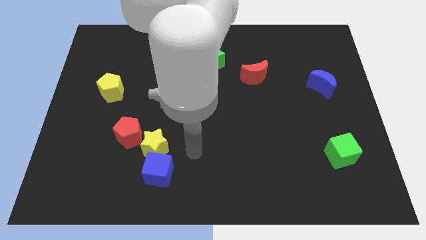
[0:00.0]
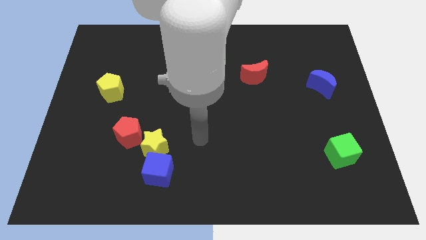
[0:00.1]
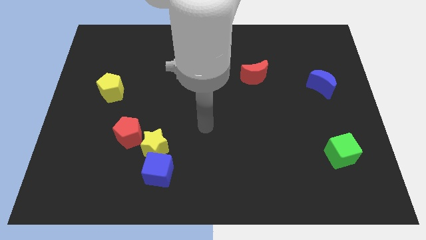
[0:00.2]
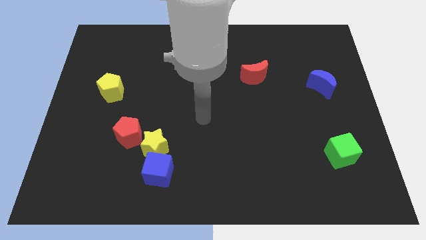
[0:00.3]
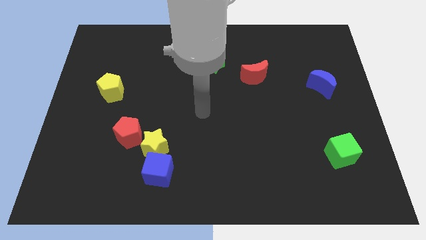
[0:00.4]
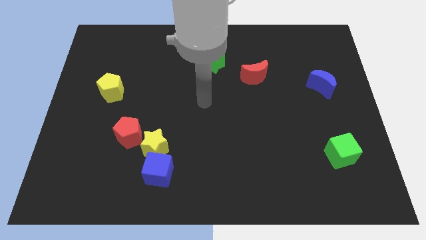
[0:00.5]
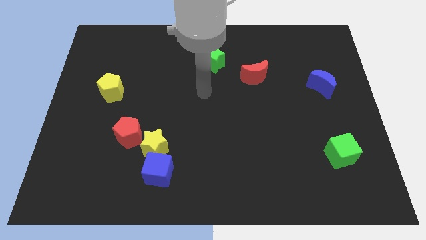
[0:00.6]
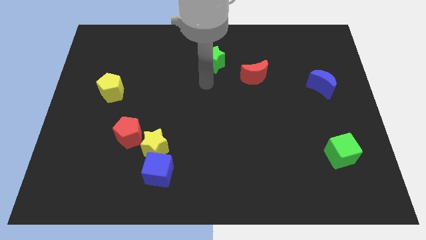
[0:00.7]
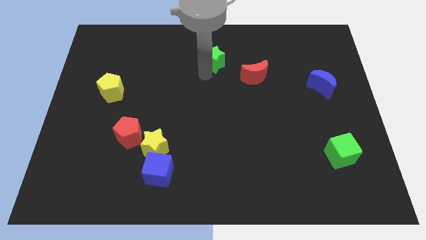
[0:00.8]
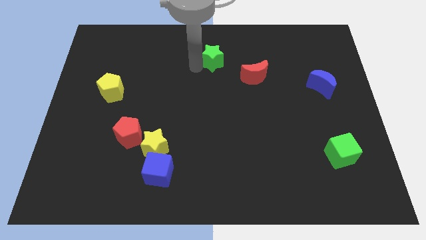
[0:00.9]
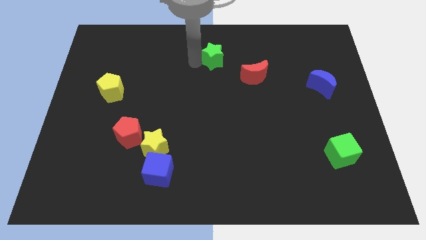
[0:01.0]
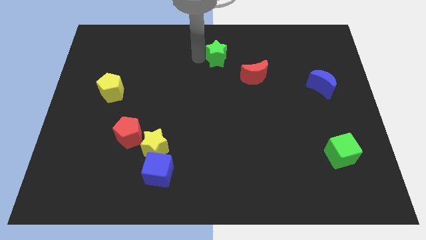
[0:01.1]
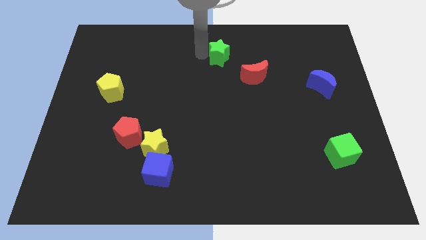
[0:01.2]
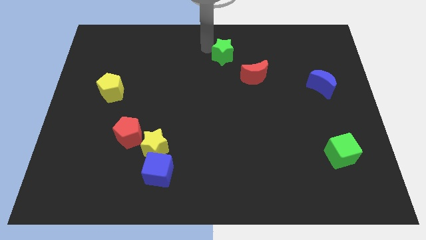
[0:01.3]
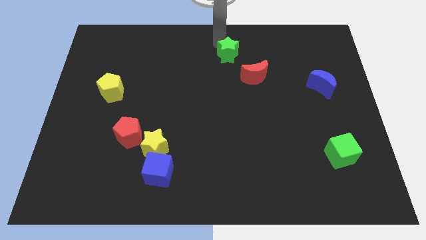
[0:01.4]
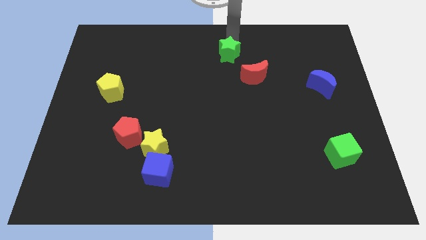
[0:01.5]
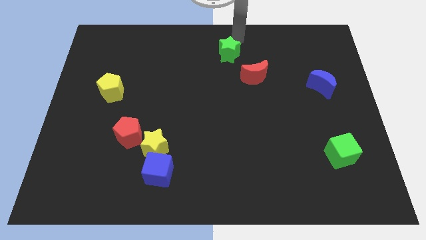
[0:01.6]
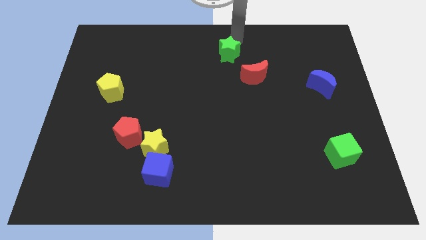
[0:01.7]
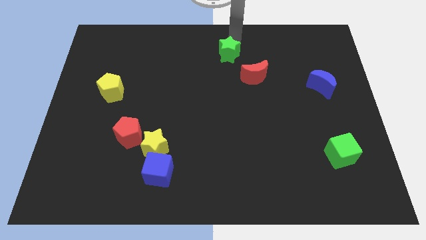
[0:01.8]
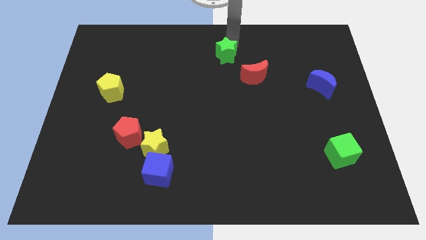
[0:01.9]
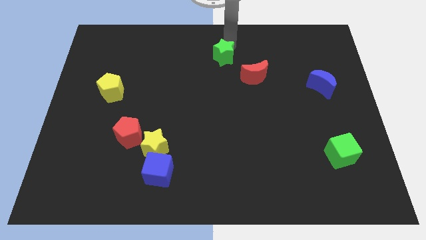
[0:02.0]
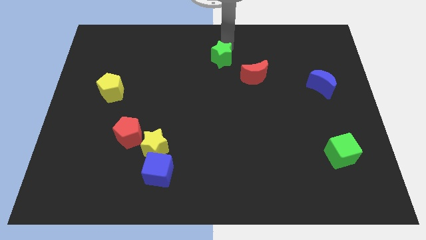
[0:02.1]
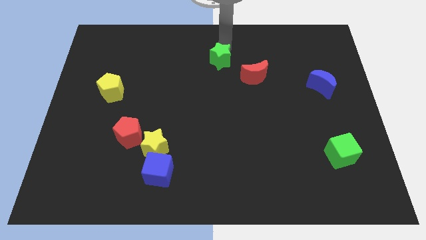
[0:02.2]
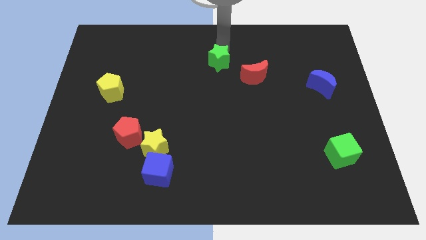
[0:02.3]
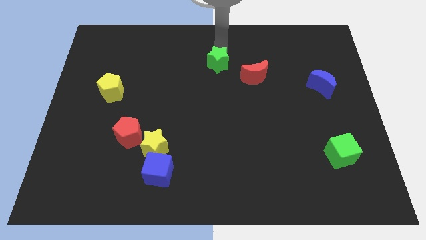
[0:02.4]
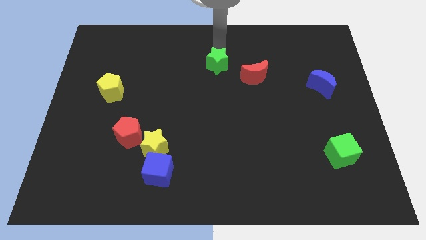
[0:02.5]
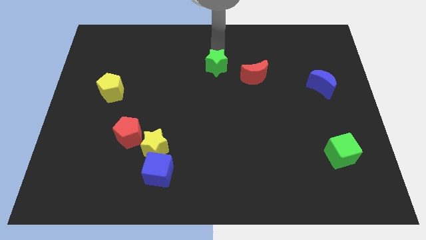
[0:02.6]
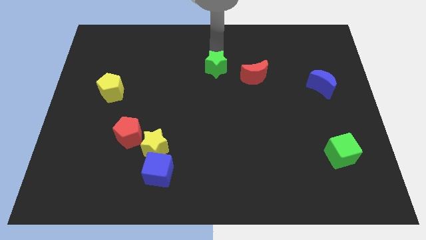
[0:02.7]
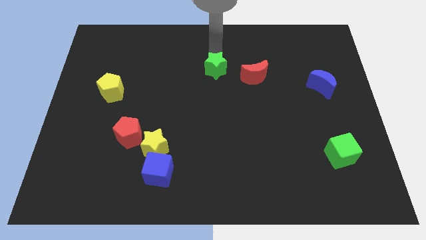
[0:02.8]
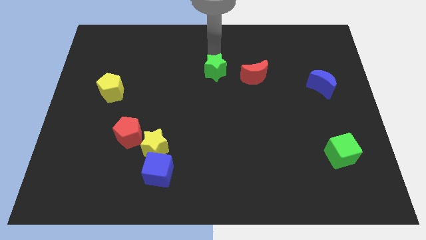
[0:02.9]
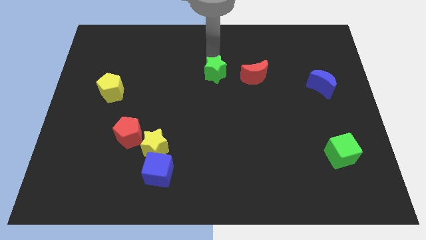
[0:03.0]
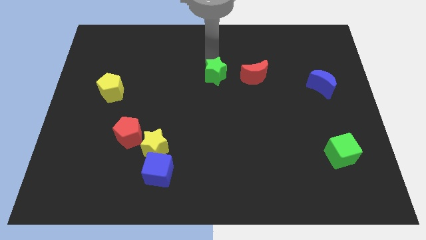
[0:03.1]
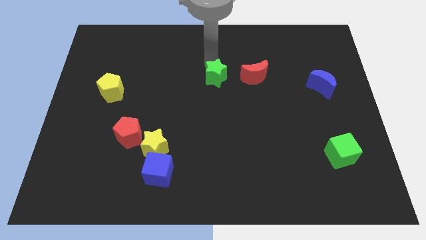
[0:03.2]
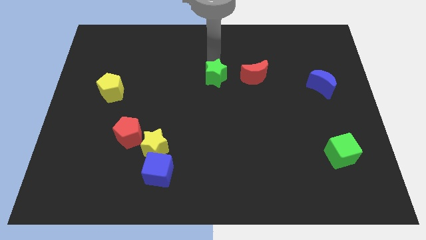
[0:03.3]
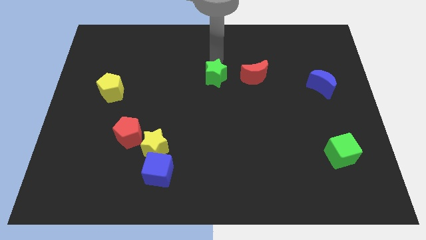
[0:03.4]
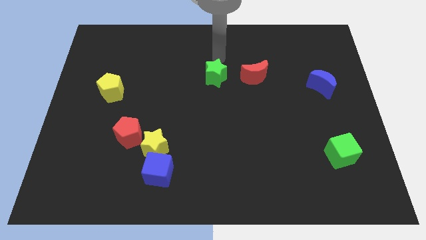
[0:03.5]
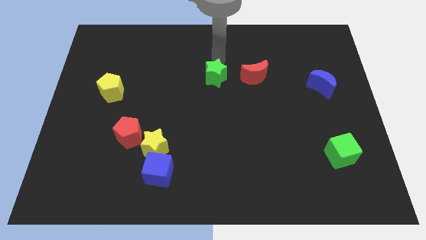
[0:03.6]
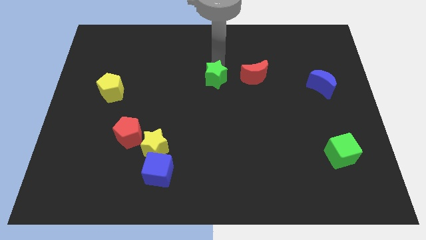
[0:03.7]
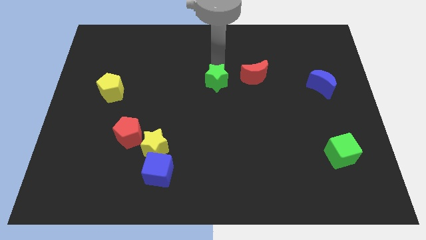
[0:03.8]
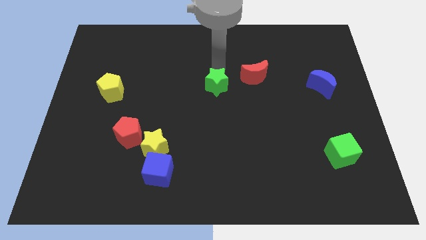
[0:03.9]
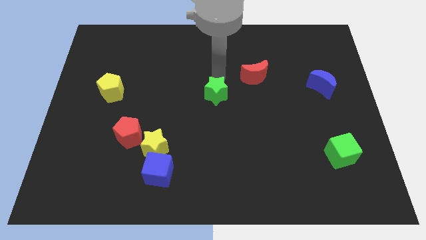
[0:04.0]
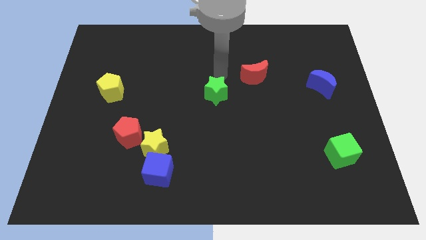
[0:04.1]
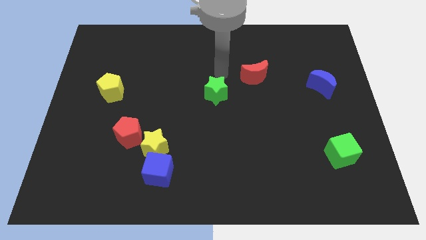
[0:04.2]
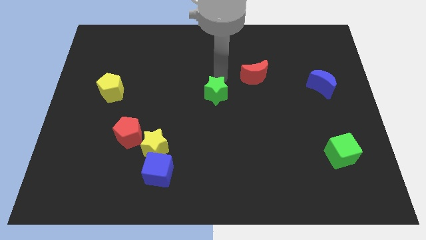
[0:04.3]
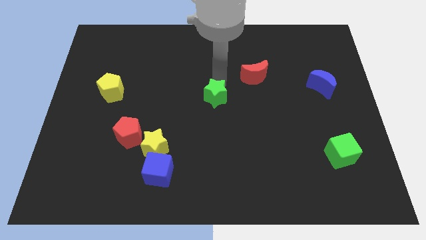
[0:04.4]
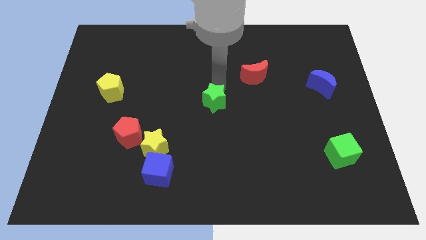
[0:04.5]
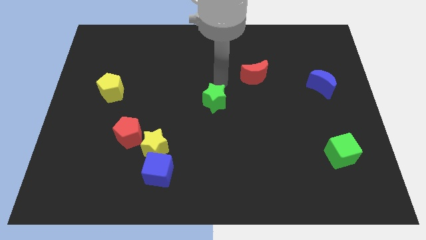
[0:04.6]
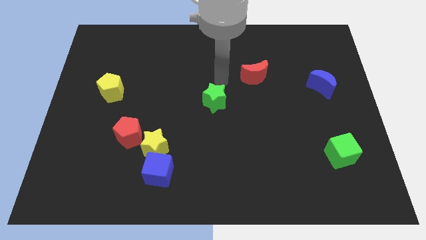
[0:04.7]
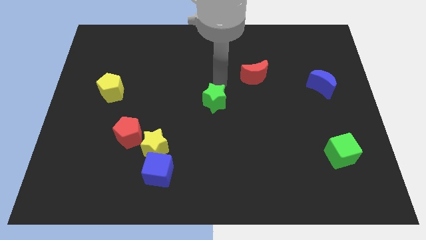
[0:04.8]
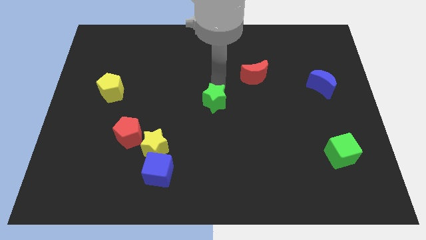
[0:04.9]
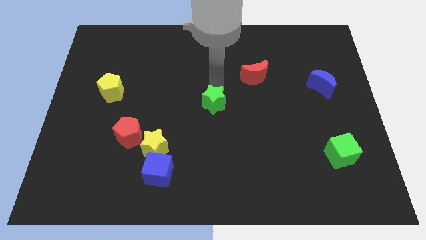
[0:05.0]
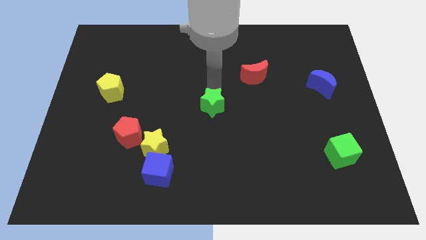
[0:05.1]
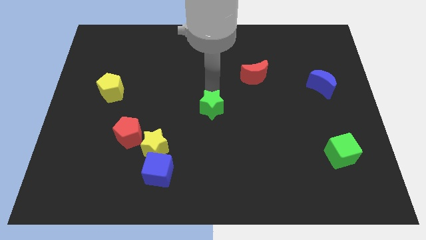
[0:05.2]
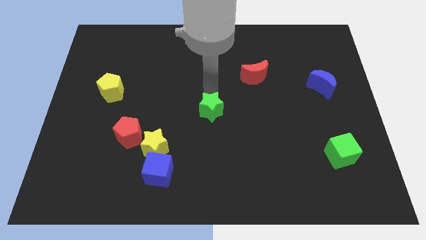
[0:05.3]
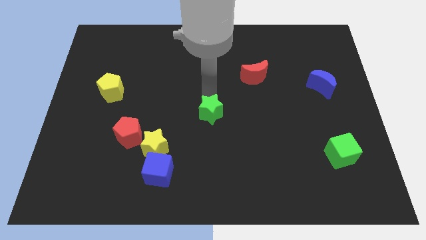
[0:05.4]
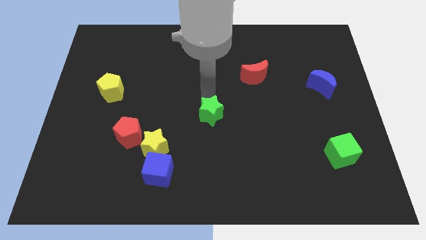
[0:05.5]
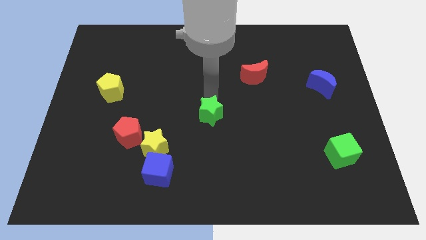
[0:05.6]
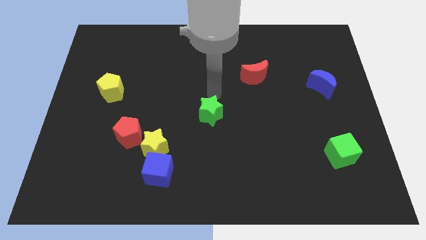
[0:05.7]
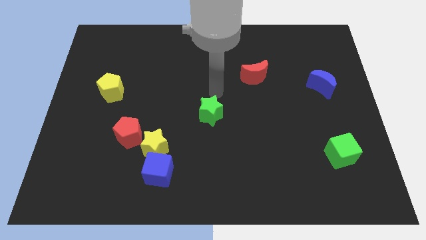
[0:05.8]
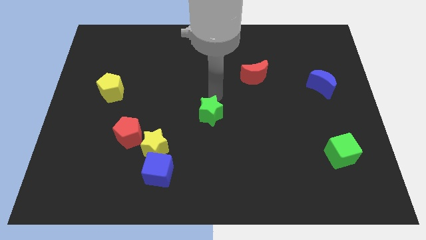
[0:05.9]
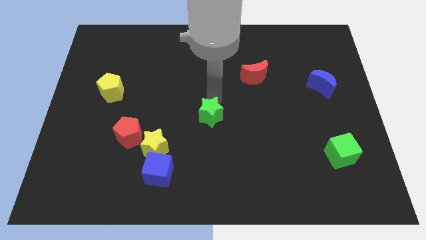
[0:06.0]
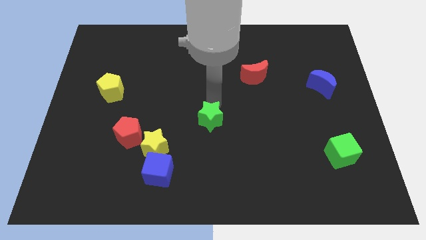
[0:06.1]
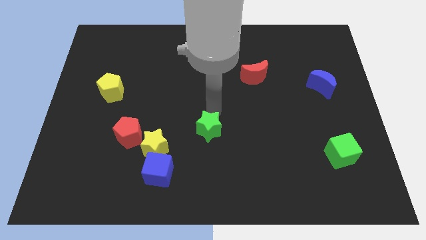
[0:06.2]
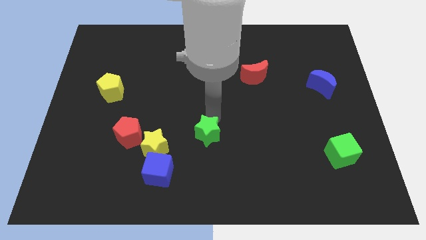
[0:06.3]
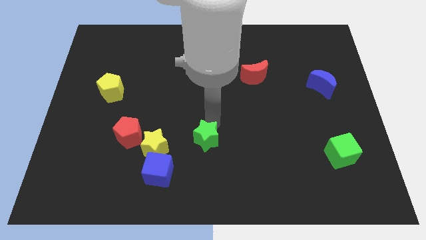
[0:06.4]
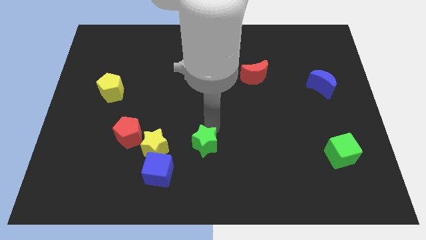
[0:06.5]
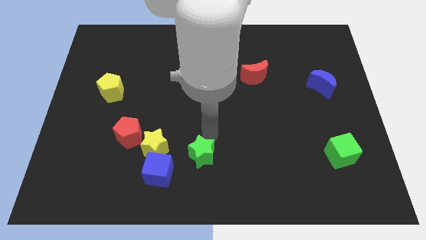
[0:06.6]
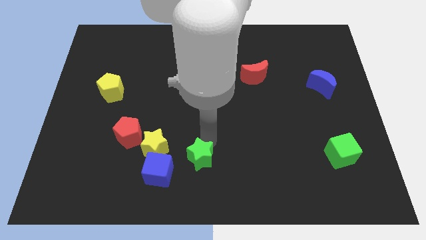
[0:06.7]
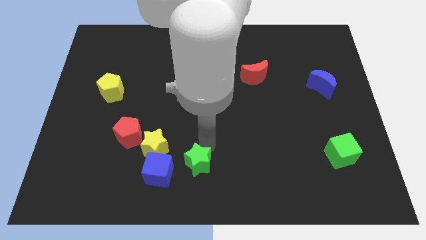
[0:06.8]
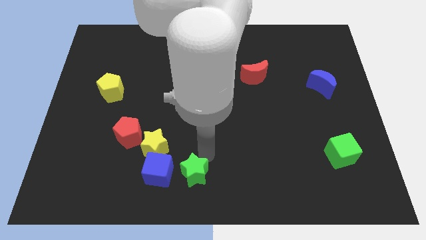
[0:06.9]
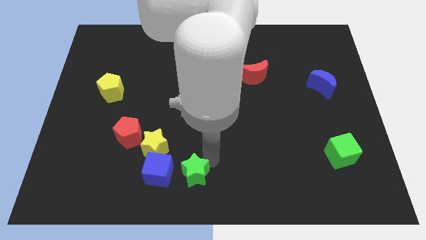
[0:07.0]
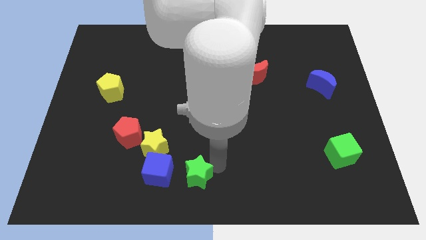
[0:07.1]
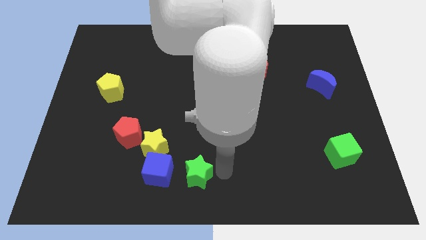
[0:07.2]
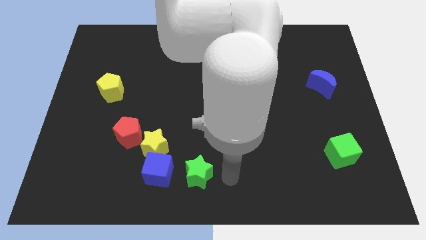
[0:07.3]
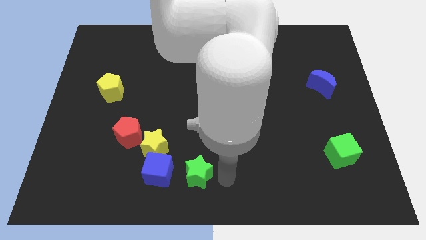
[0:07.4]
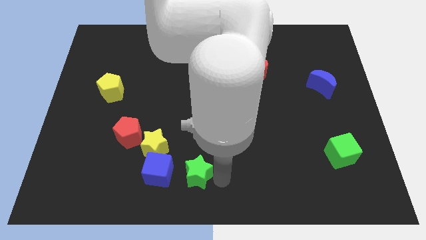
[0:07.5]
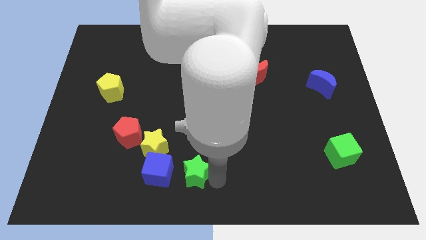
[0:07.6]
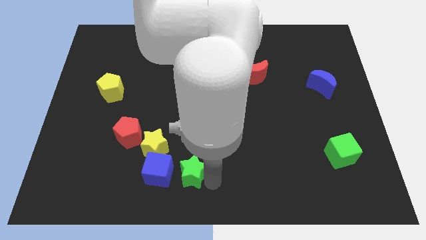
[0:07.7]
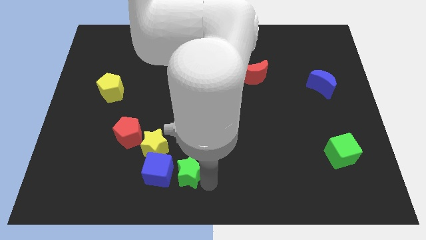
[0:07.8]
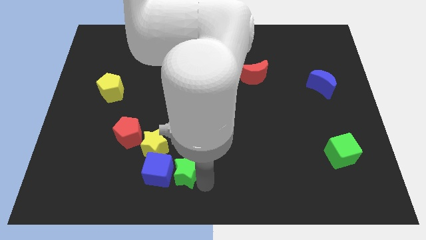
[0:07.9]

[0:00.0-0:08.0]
slide the green star towards the blue cube
